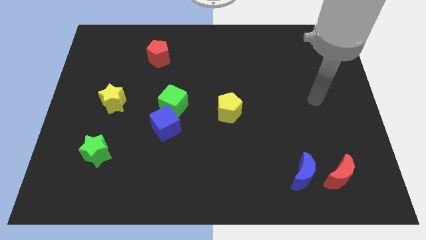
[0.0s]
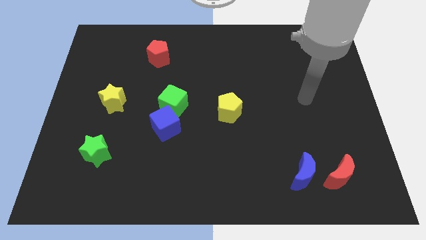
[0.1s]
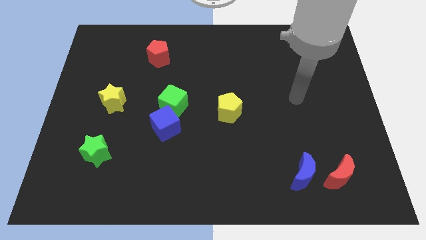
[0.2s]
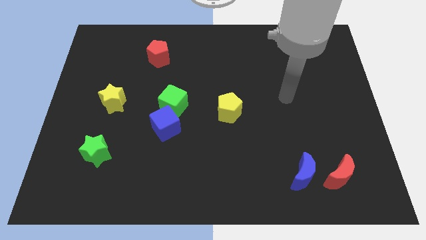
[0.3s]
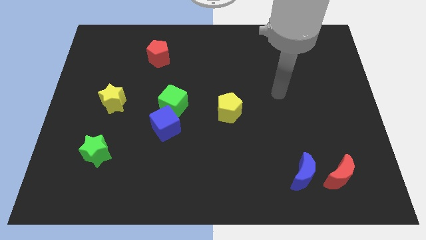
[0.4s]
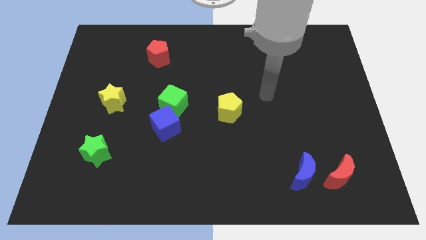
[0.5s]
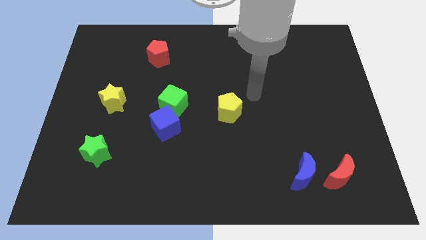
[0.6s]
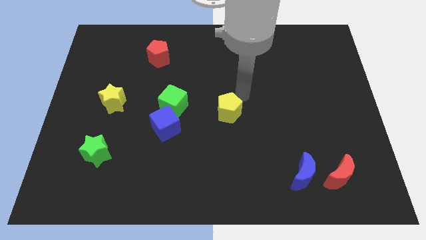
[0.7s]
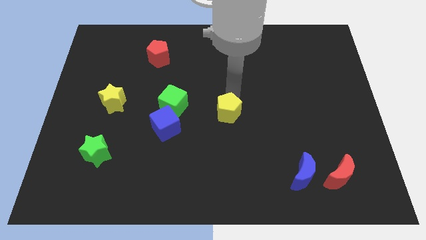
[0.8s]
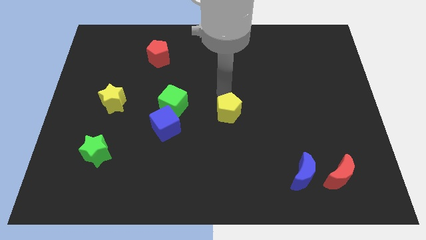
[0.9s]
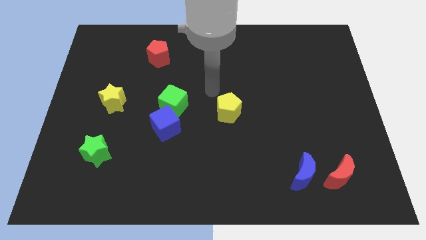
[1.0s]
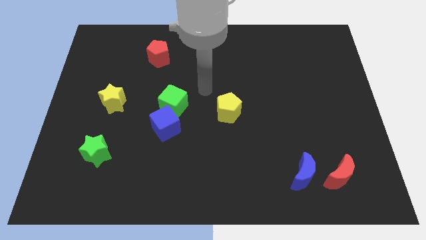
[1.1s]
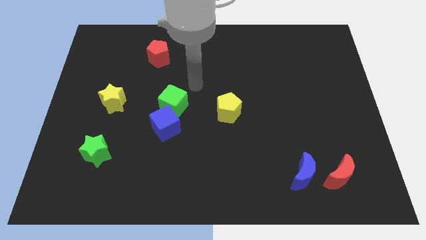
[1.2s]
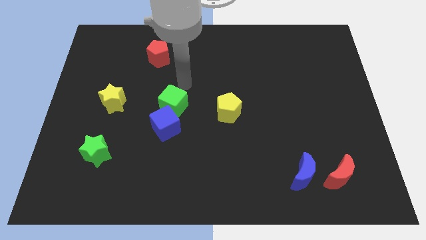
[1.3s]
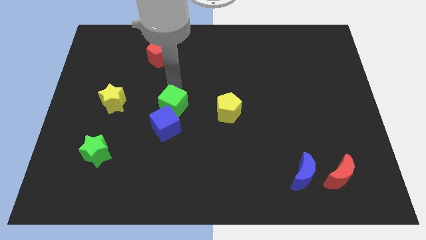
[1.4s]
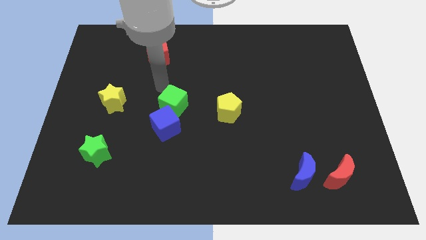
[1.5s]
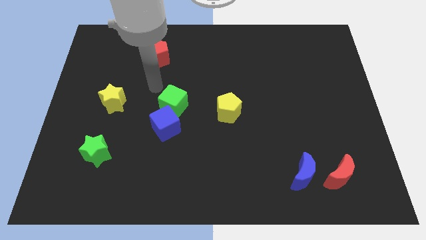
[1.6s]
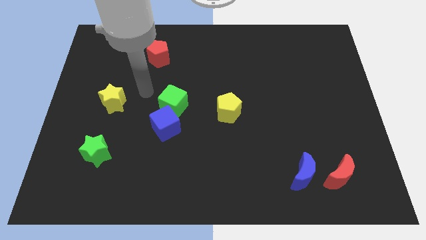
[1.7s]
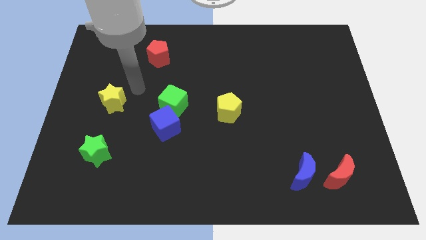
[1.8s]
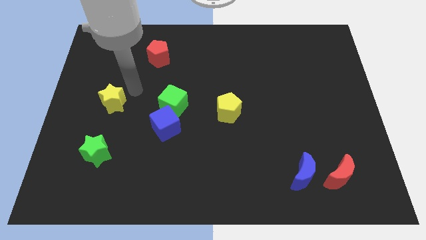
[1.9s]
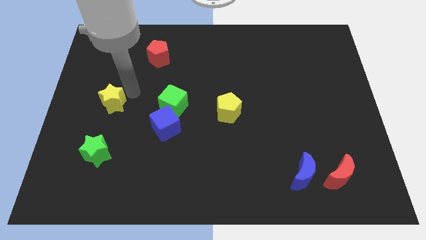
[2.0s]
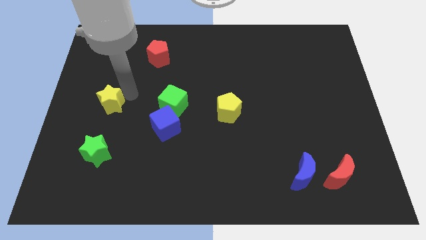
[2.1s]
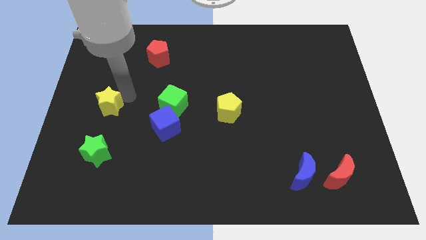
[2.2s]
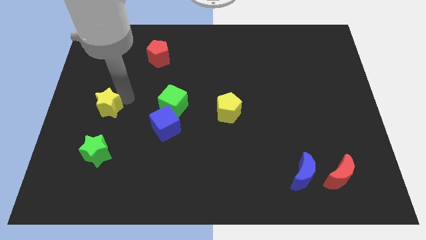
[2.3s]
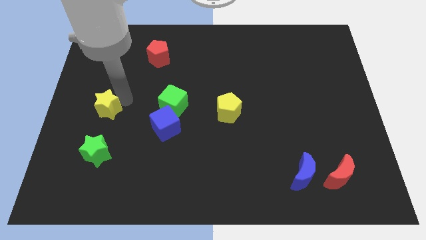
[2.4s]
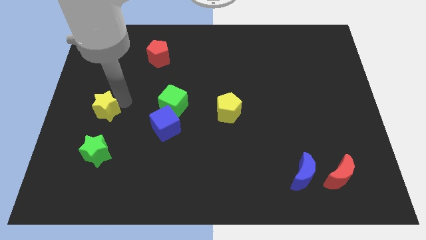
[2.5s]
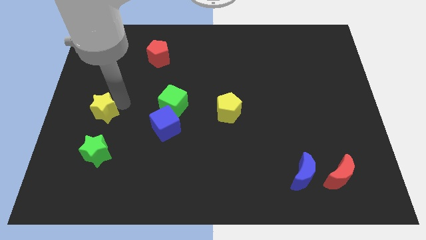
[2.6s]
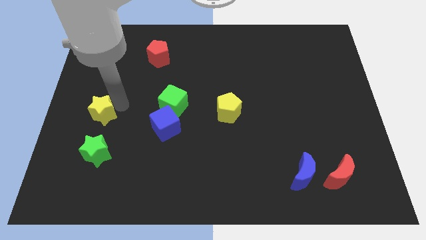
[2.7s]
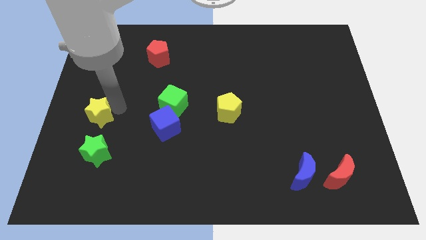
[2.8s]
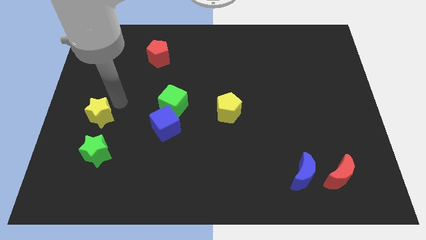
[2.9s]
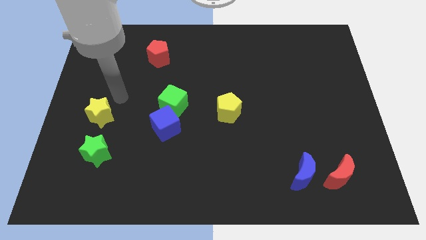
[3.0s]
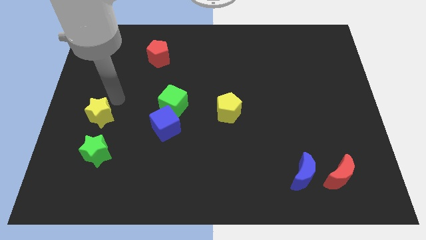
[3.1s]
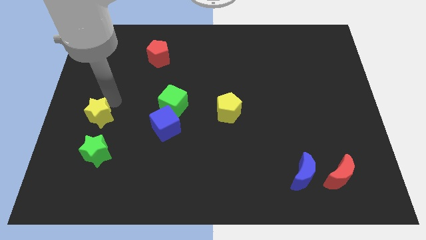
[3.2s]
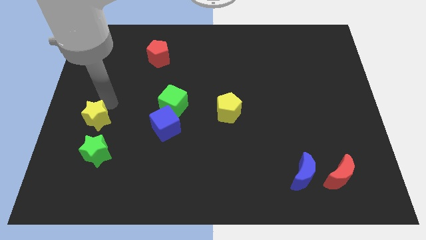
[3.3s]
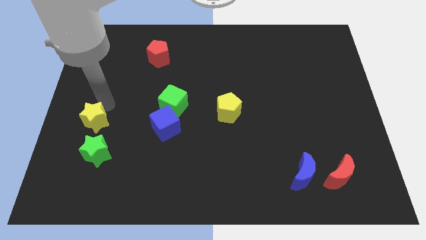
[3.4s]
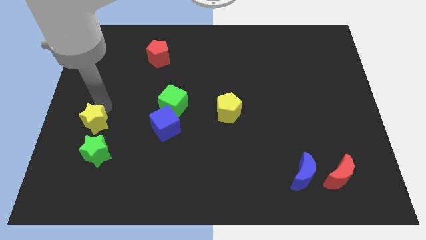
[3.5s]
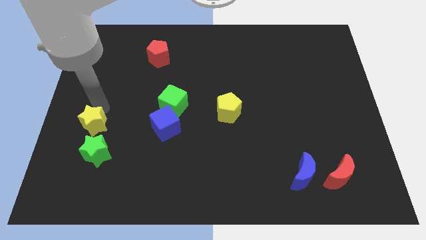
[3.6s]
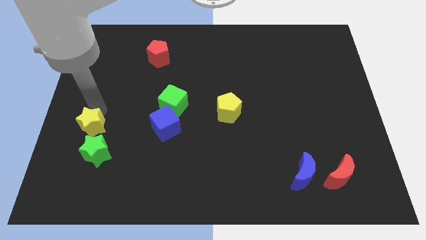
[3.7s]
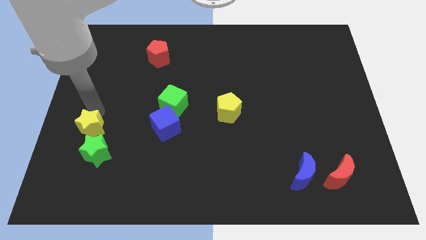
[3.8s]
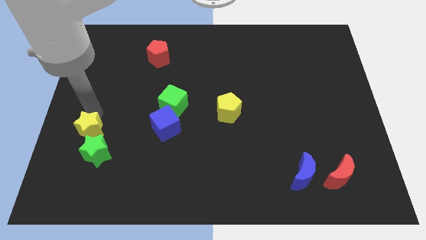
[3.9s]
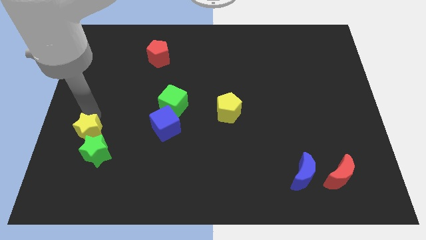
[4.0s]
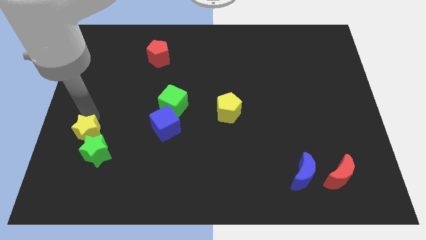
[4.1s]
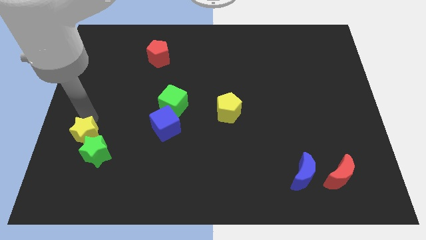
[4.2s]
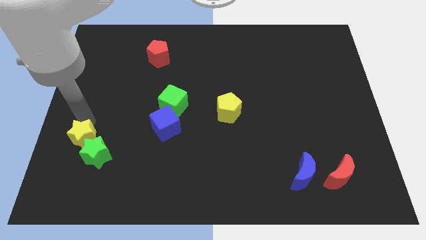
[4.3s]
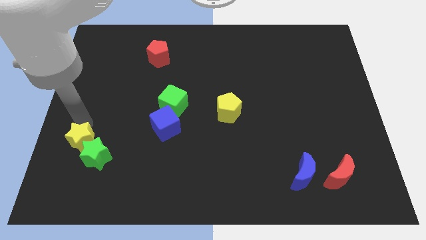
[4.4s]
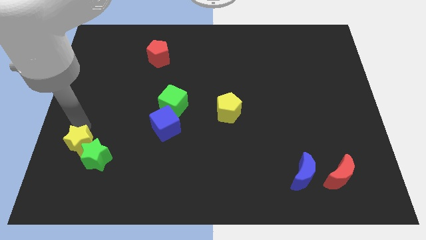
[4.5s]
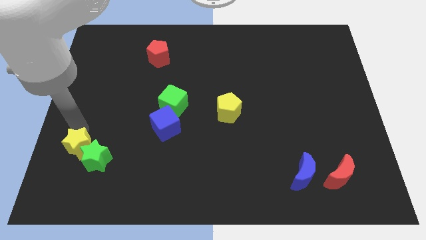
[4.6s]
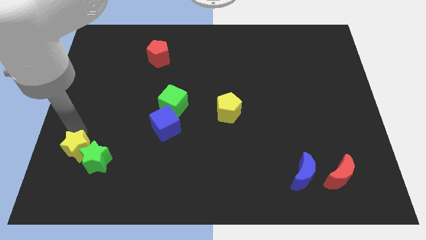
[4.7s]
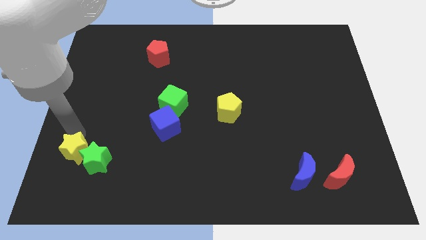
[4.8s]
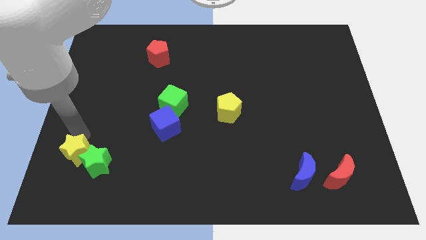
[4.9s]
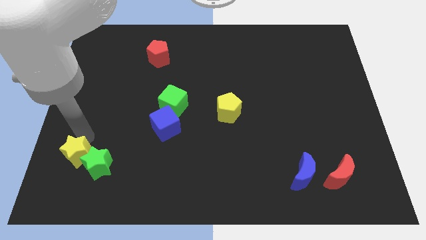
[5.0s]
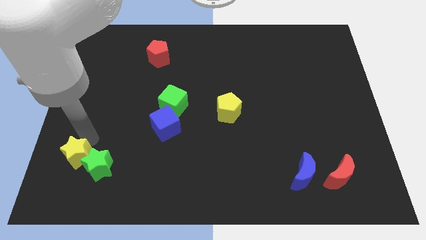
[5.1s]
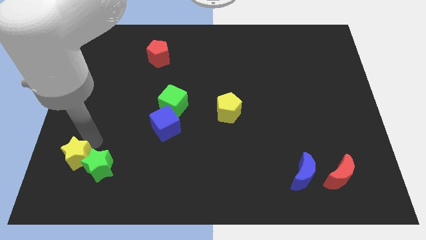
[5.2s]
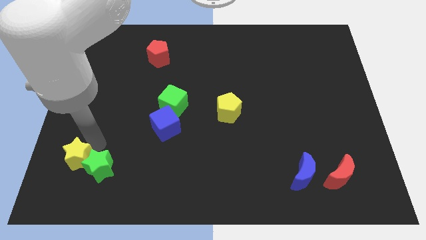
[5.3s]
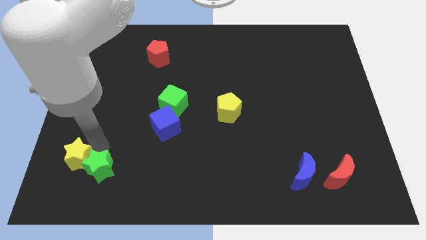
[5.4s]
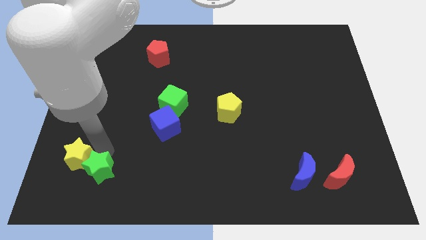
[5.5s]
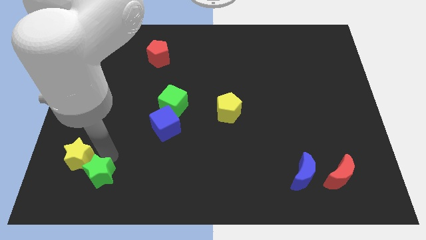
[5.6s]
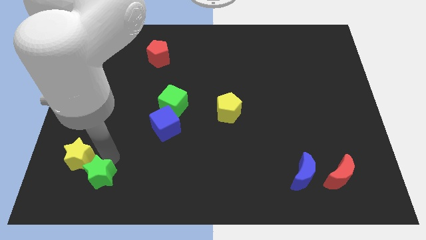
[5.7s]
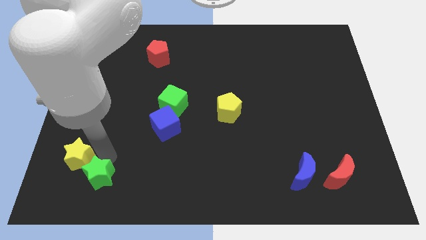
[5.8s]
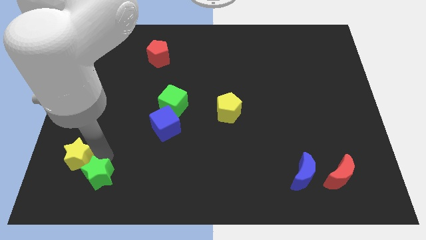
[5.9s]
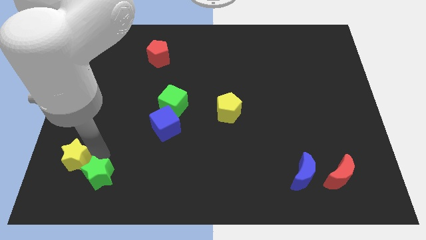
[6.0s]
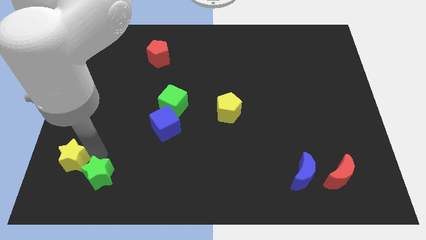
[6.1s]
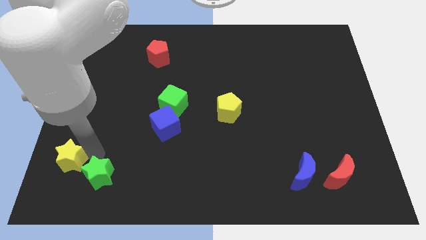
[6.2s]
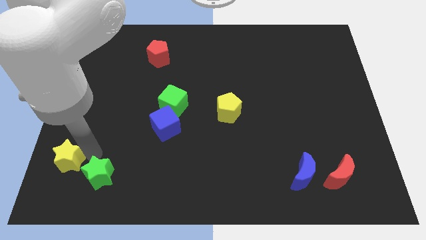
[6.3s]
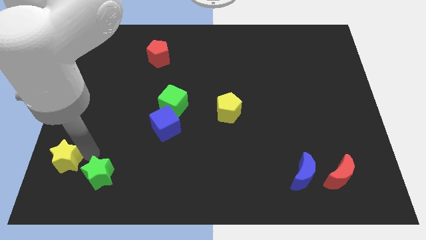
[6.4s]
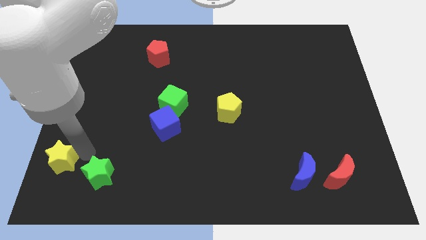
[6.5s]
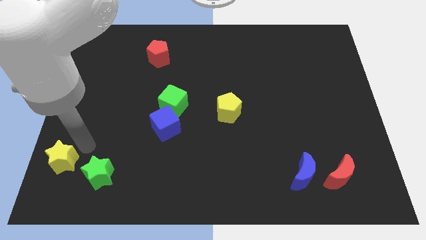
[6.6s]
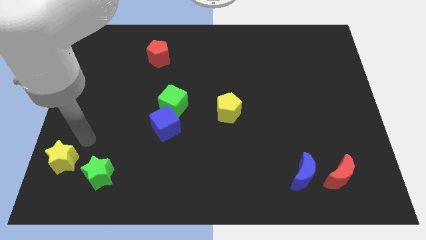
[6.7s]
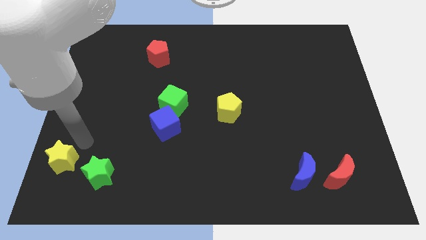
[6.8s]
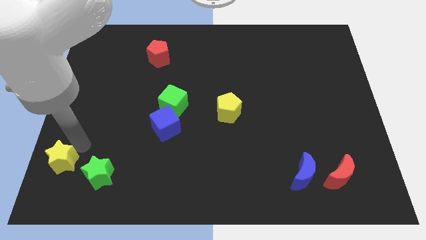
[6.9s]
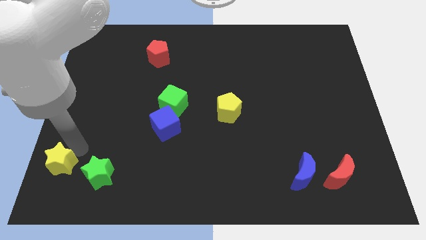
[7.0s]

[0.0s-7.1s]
push the yellow star to the bottom left corner
